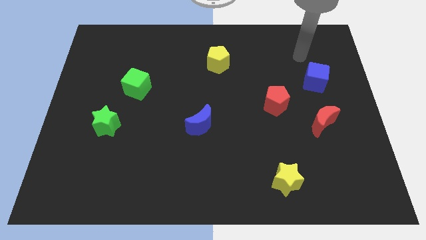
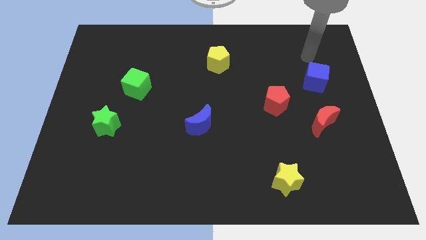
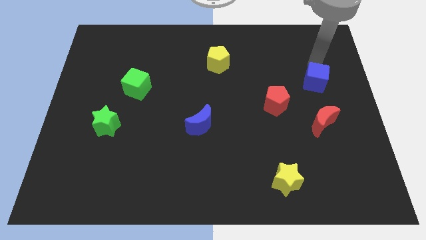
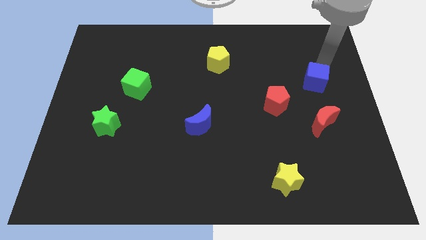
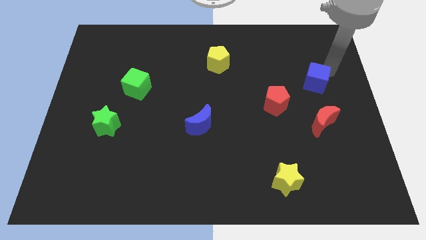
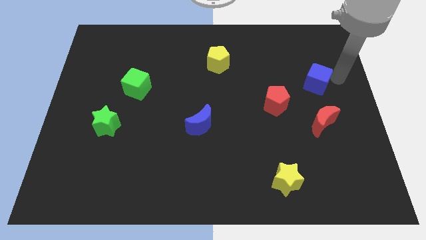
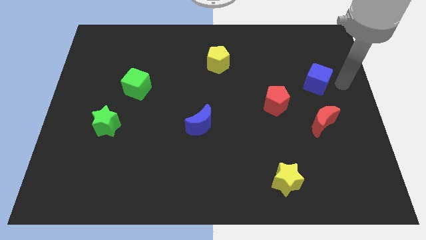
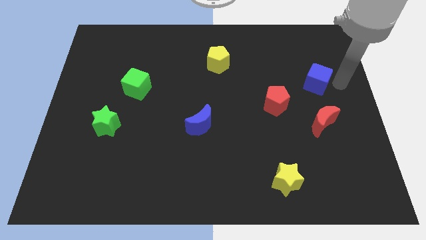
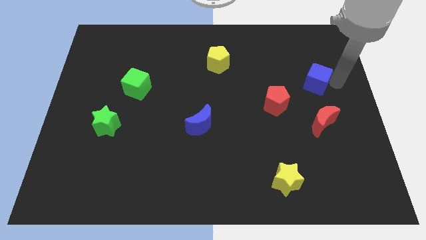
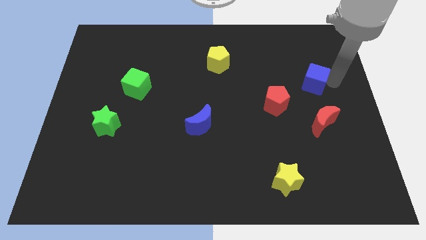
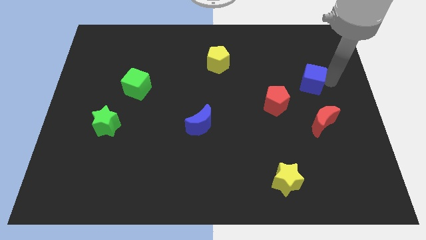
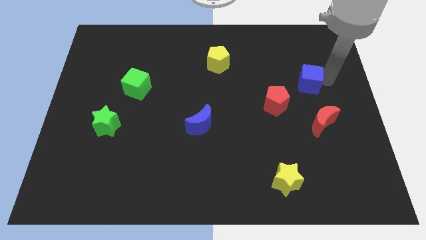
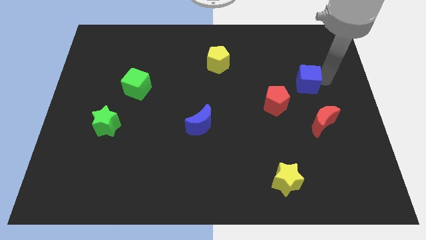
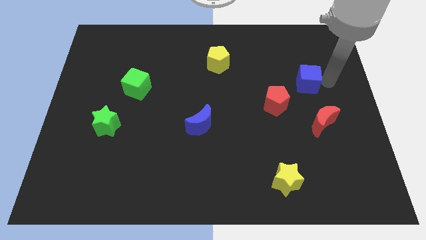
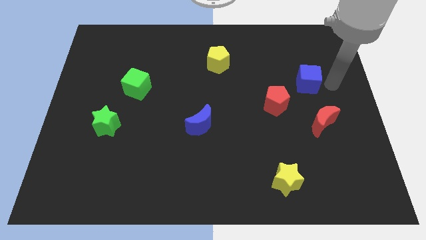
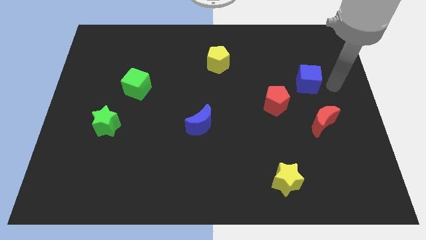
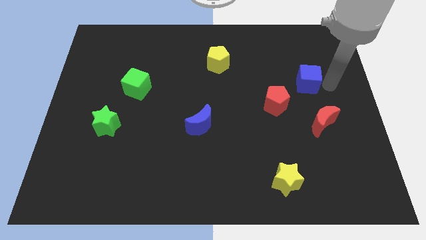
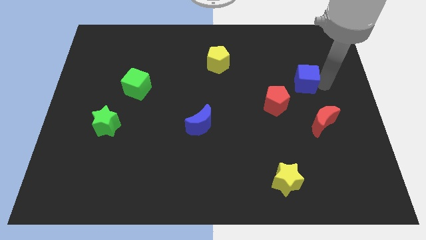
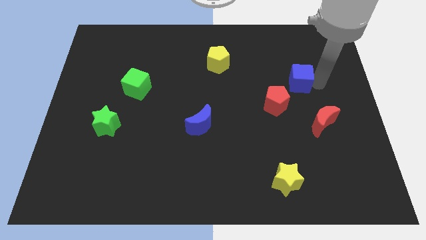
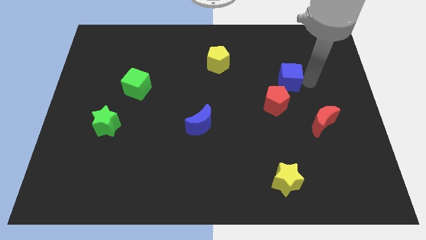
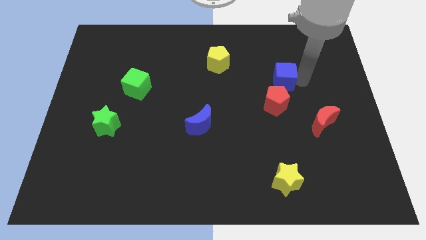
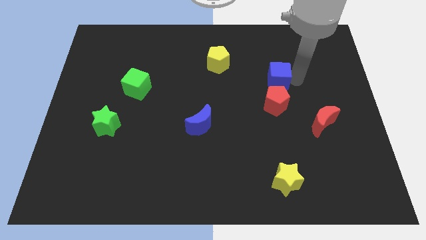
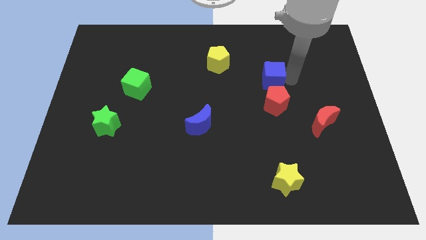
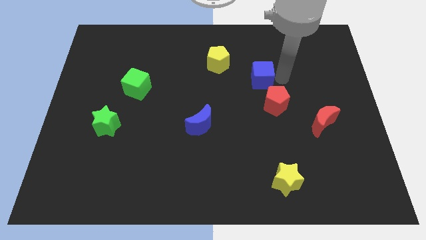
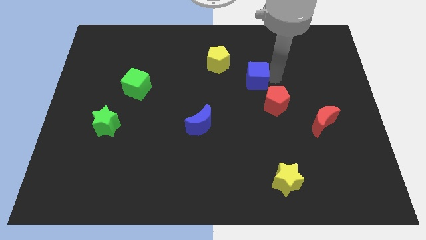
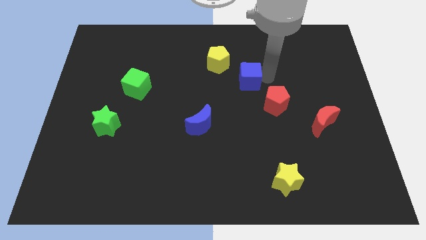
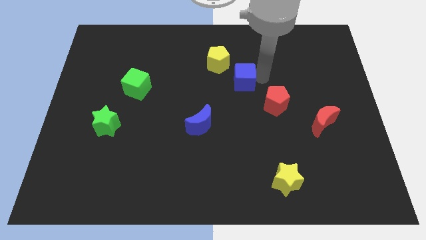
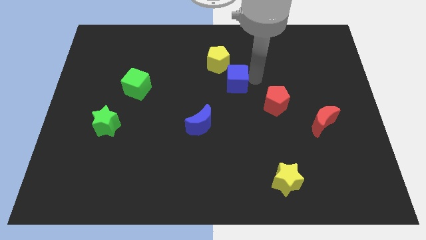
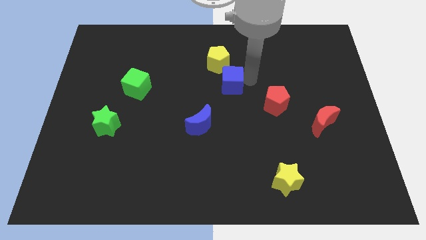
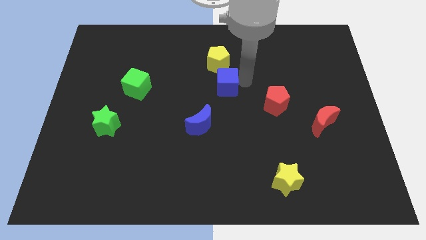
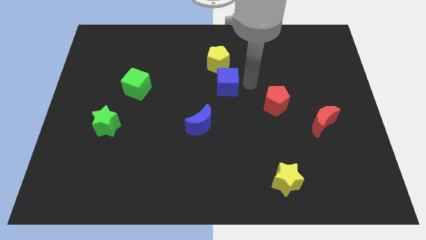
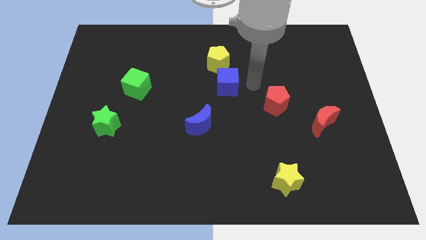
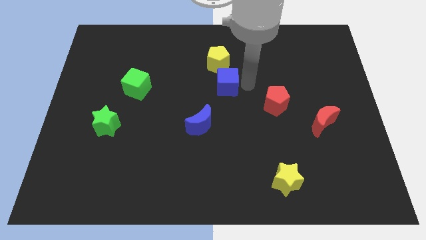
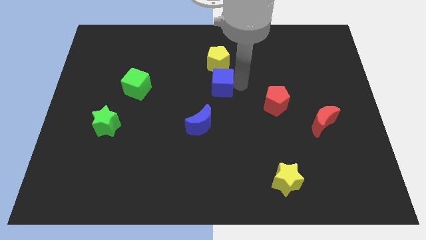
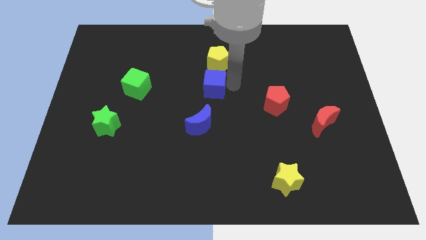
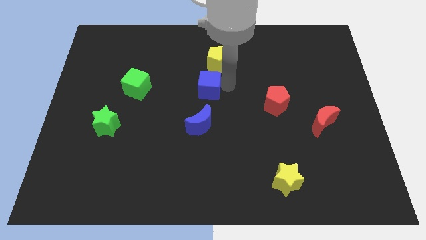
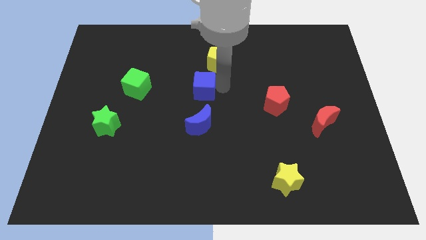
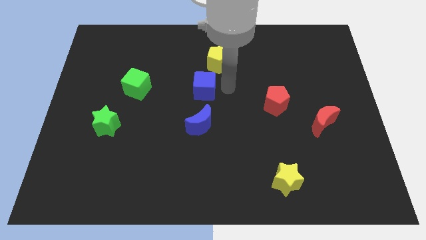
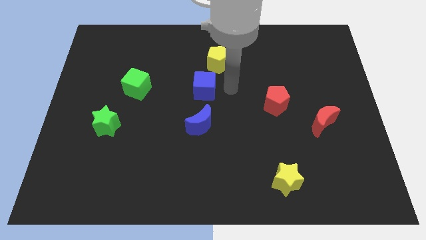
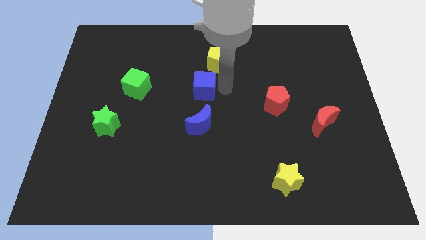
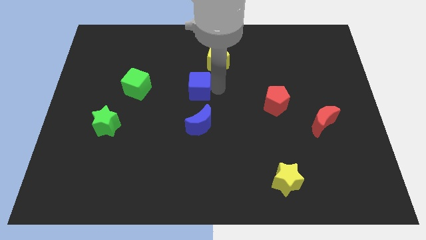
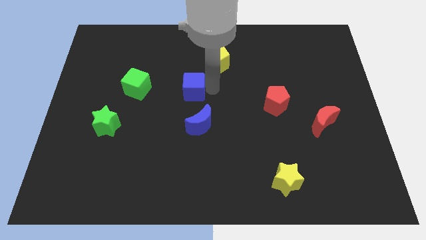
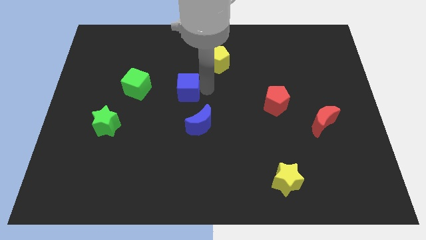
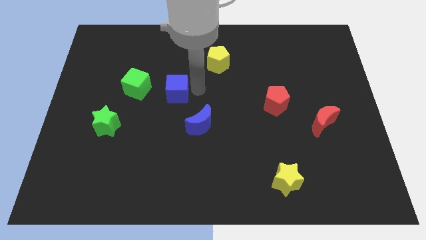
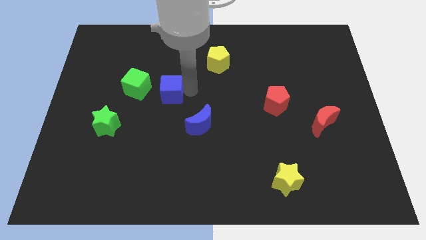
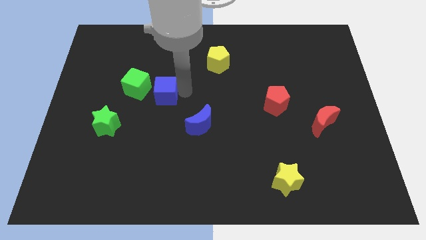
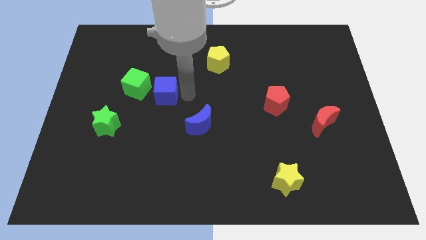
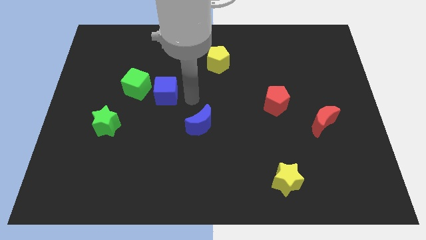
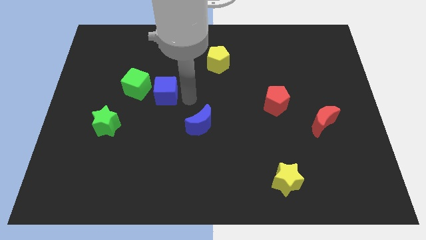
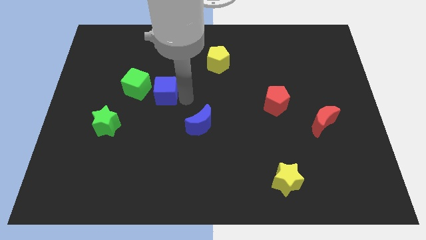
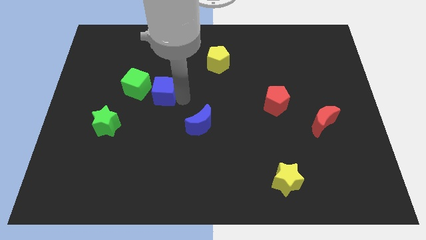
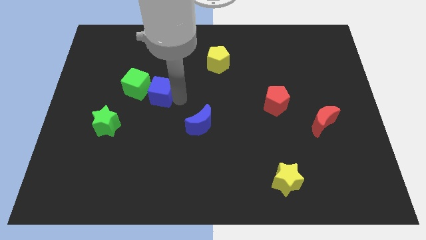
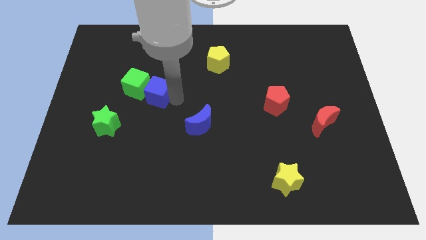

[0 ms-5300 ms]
put the blue cube to the green cube

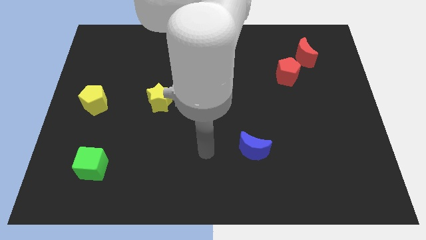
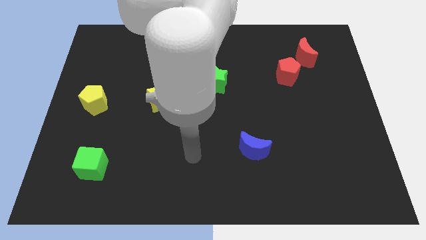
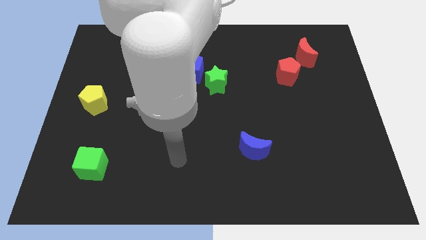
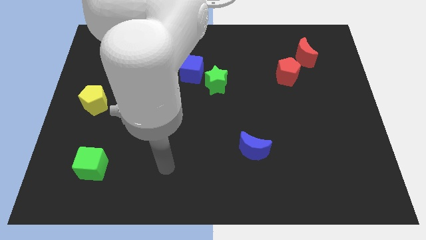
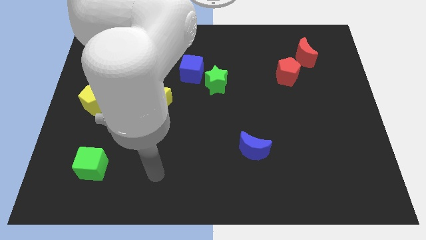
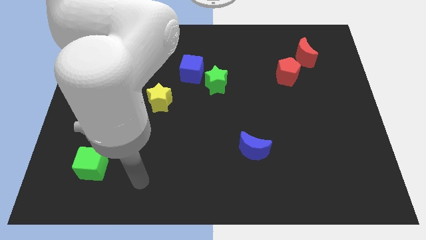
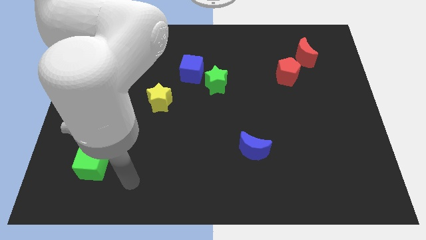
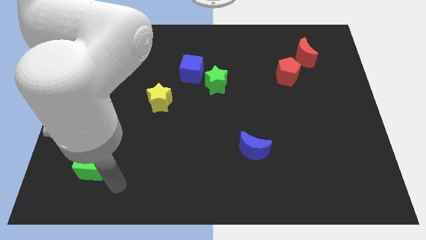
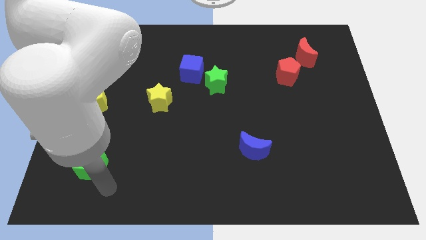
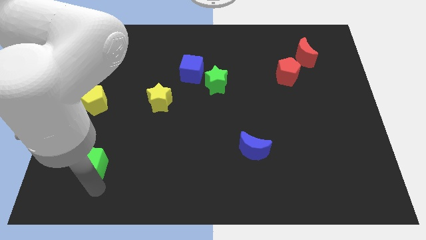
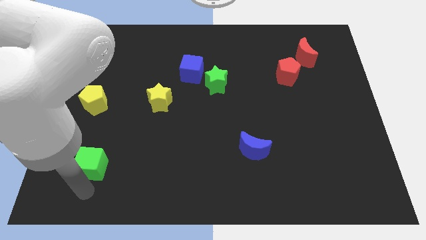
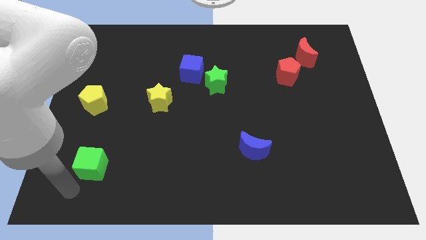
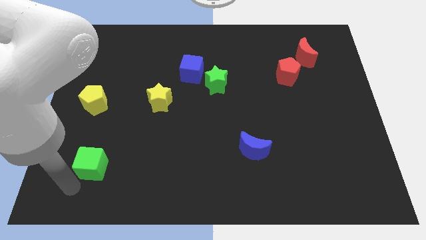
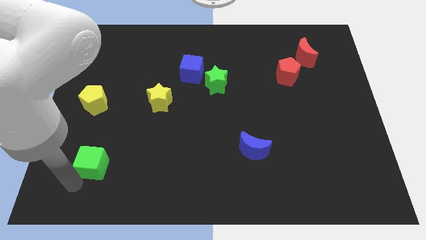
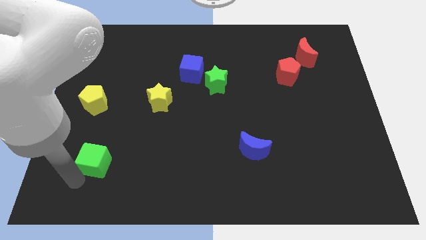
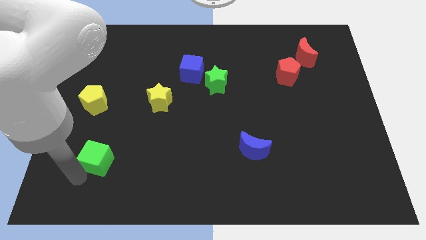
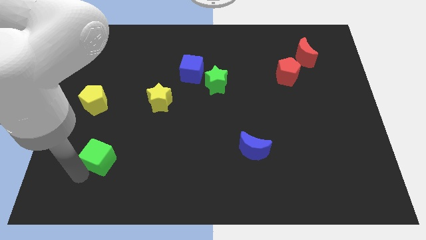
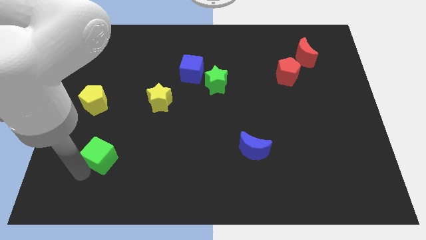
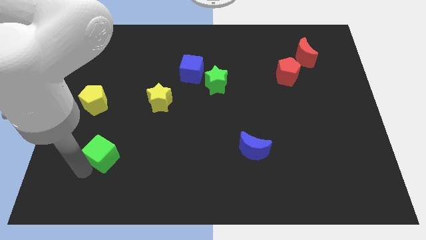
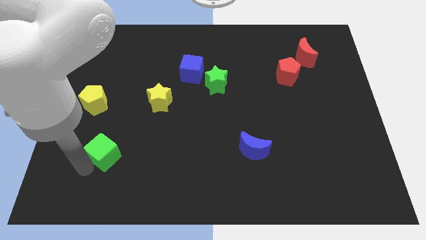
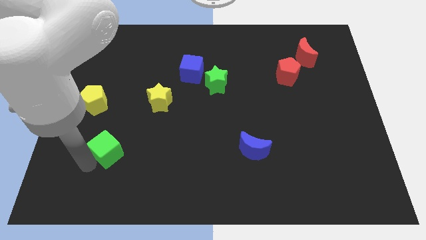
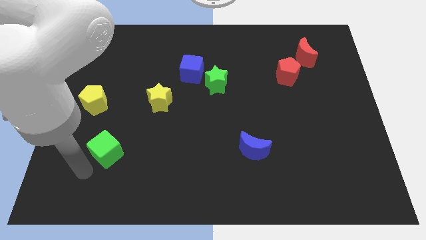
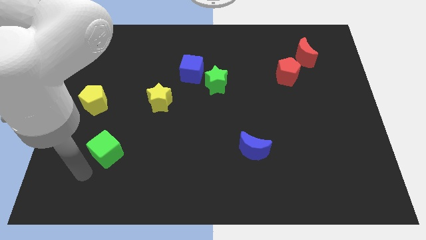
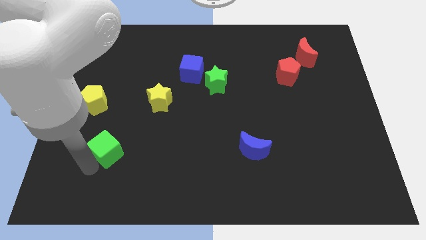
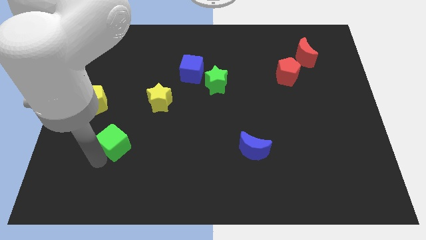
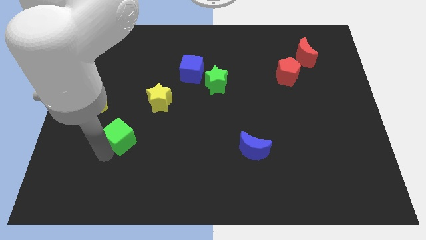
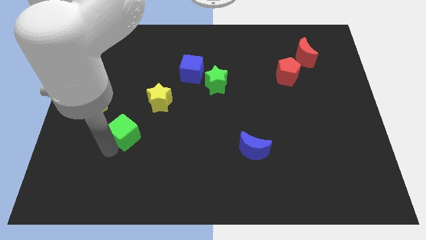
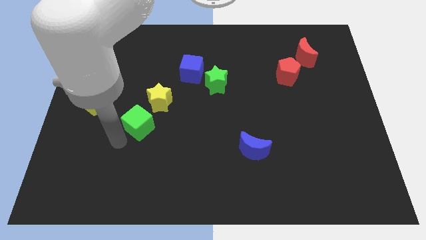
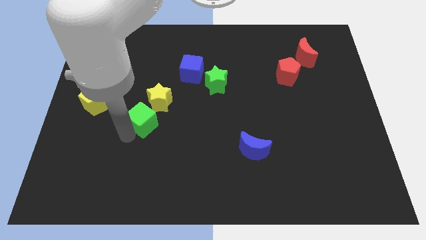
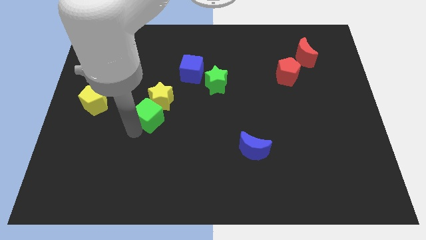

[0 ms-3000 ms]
put the green cube close to the yellow star
